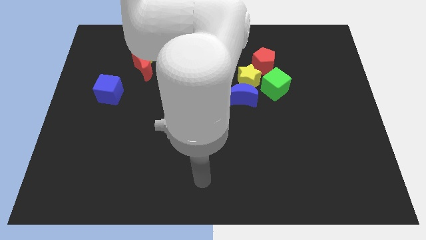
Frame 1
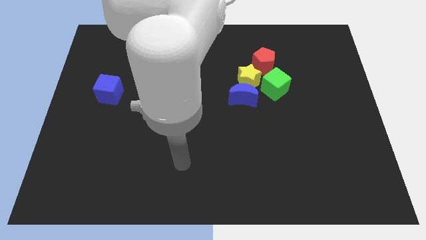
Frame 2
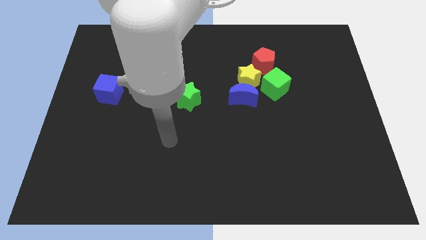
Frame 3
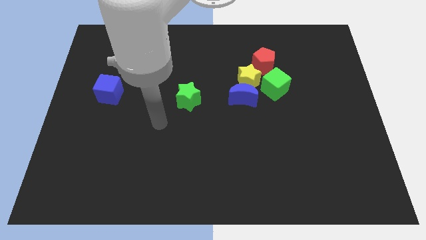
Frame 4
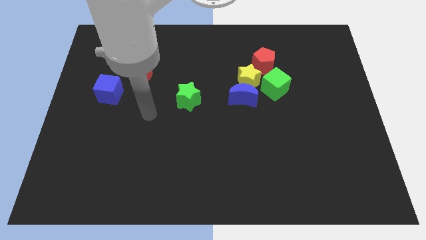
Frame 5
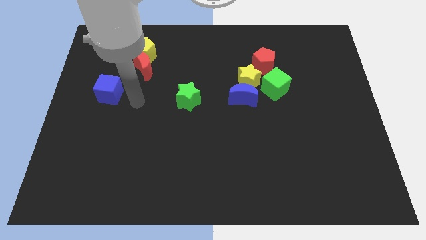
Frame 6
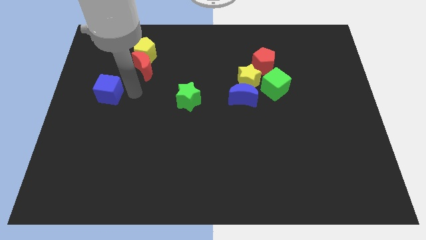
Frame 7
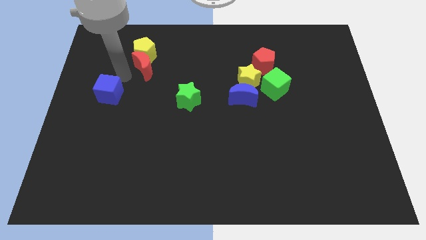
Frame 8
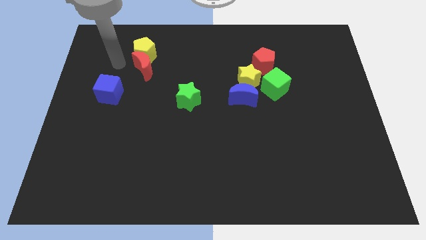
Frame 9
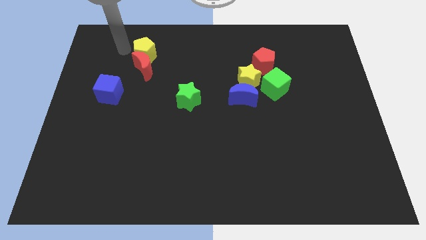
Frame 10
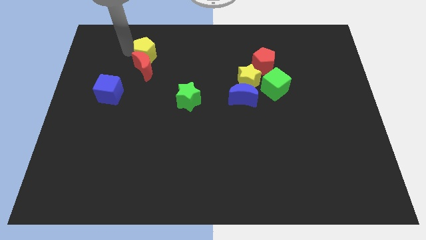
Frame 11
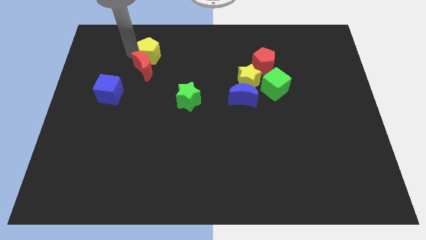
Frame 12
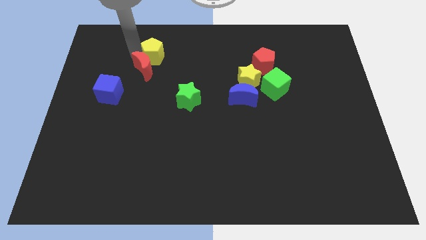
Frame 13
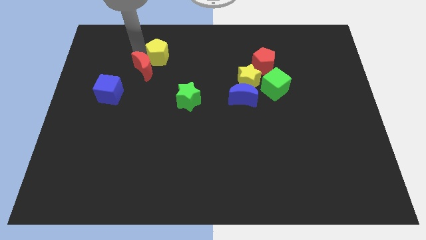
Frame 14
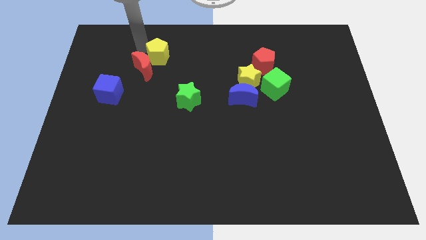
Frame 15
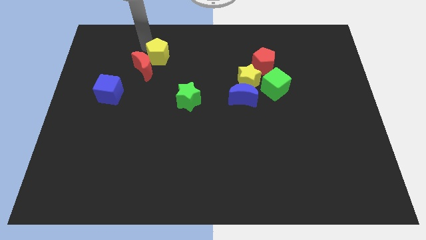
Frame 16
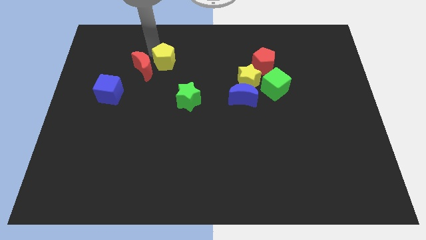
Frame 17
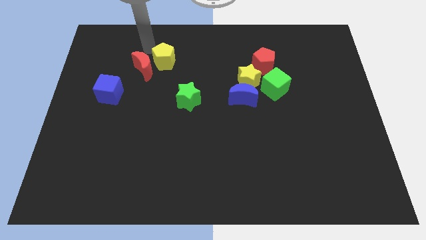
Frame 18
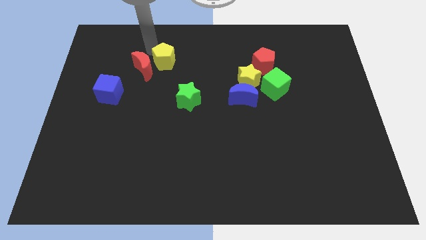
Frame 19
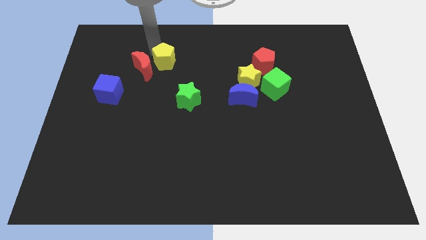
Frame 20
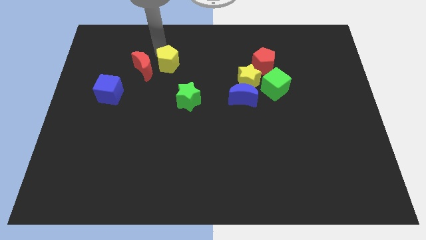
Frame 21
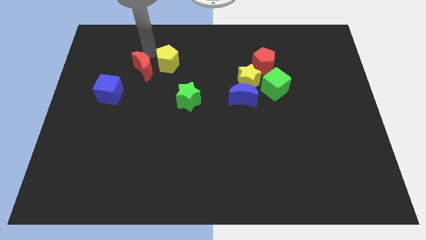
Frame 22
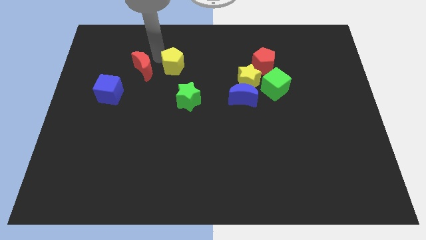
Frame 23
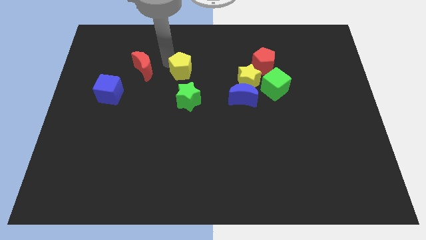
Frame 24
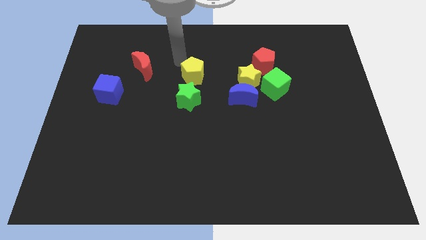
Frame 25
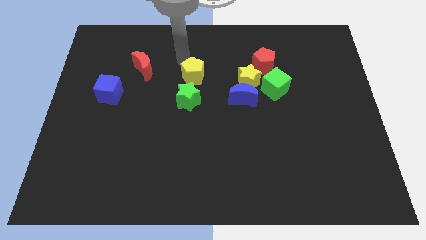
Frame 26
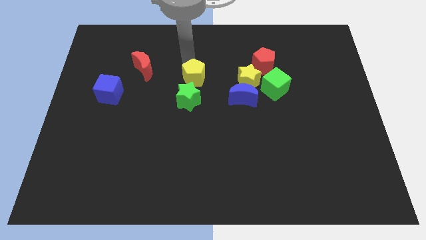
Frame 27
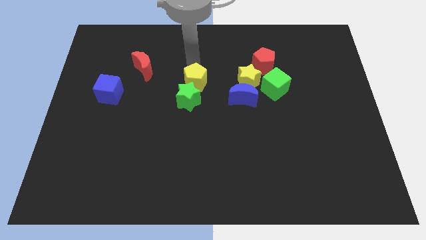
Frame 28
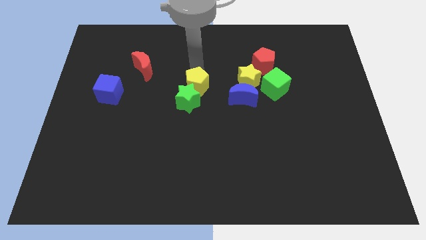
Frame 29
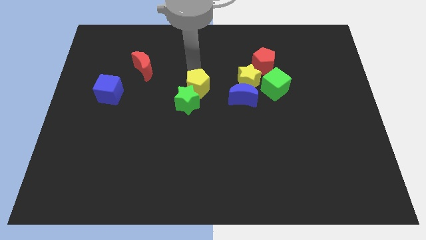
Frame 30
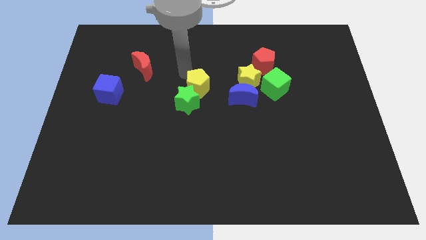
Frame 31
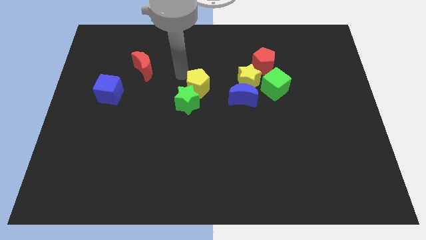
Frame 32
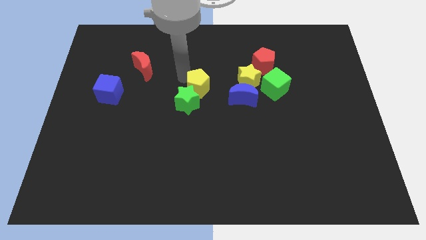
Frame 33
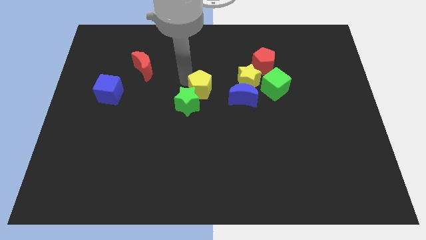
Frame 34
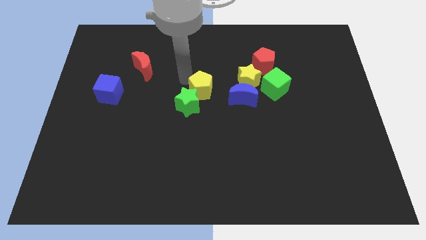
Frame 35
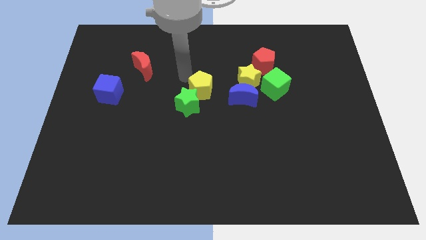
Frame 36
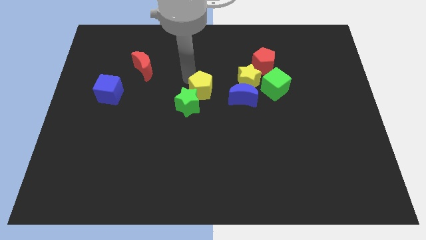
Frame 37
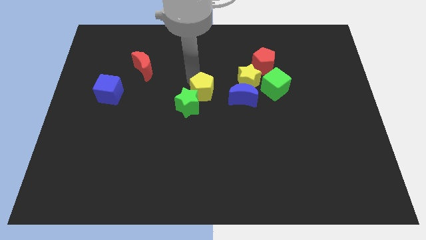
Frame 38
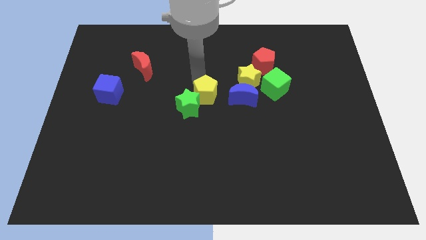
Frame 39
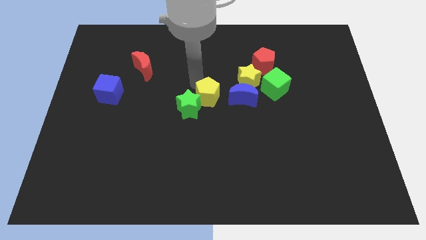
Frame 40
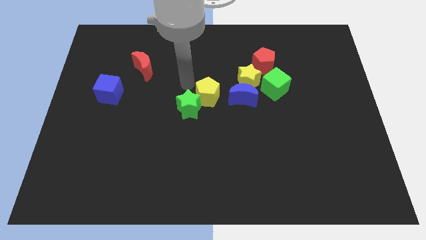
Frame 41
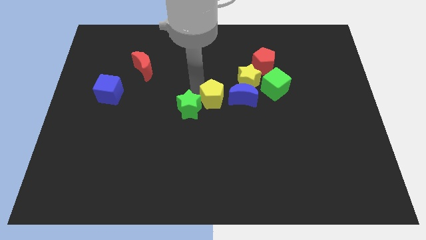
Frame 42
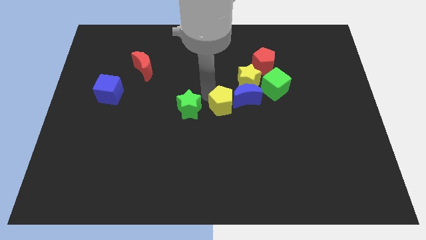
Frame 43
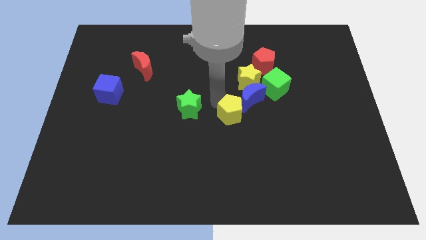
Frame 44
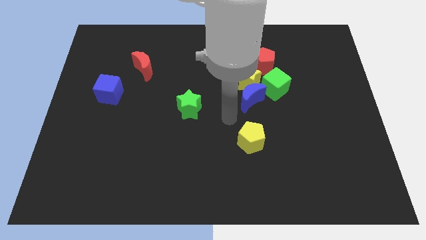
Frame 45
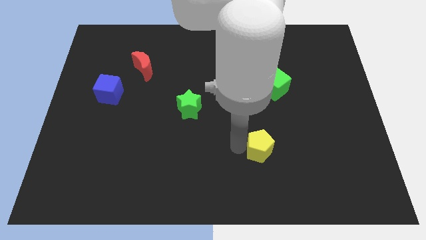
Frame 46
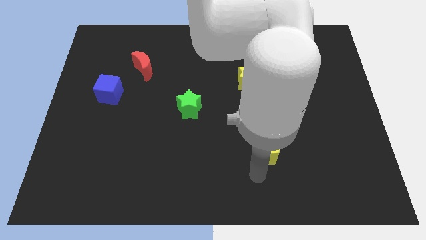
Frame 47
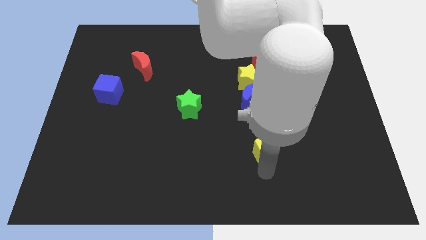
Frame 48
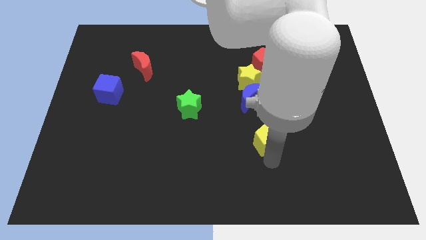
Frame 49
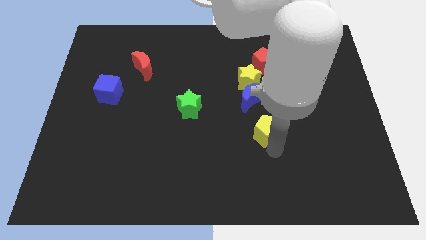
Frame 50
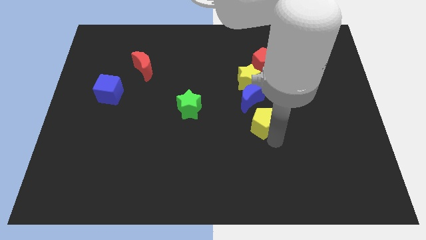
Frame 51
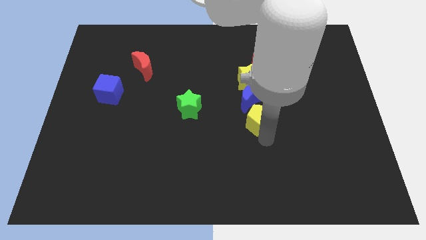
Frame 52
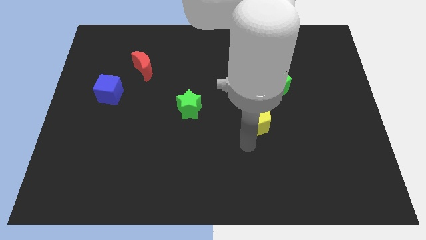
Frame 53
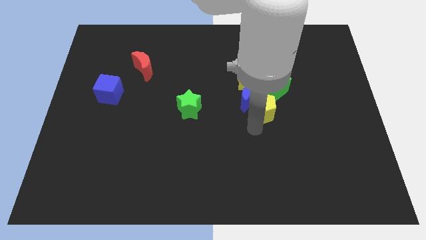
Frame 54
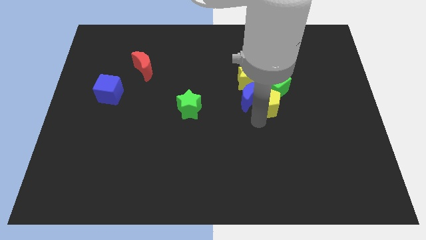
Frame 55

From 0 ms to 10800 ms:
slide the yellow pentagon close to the green cube

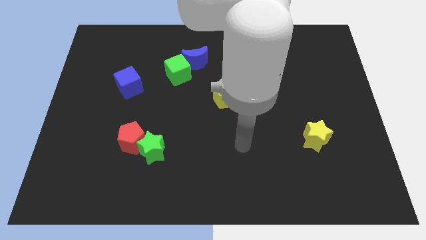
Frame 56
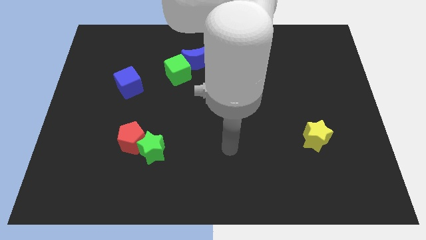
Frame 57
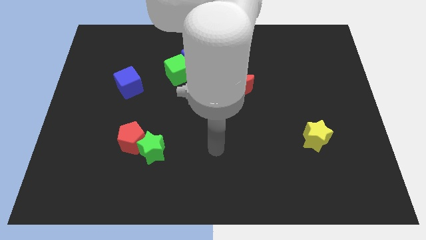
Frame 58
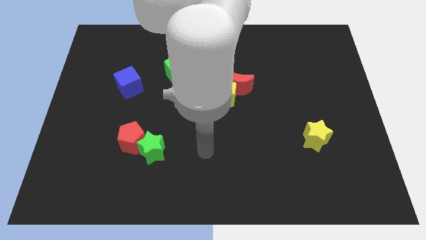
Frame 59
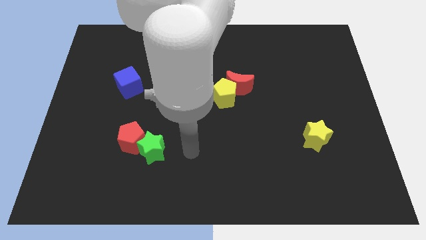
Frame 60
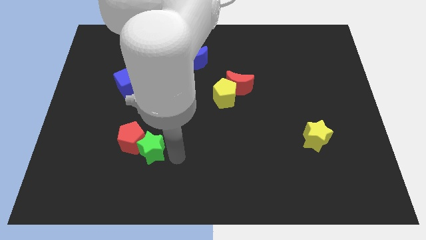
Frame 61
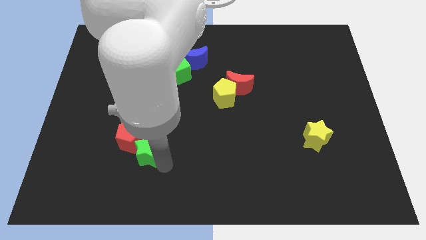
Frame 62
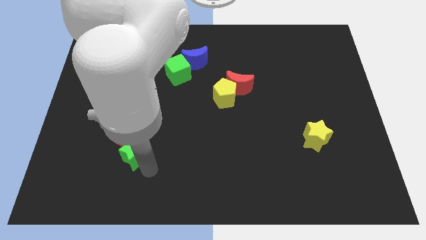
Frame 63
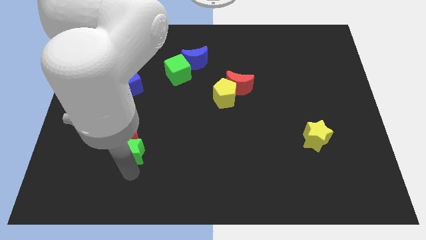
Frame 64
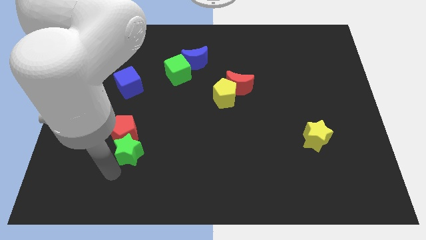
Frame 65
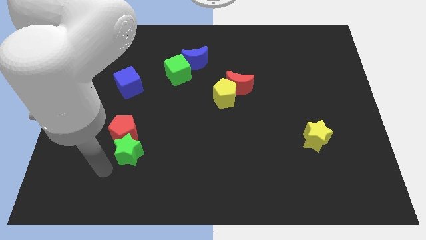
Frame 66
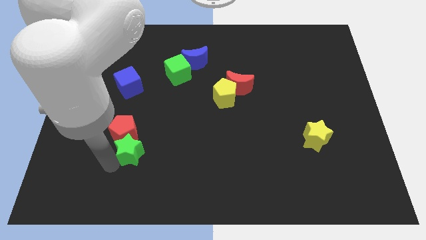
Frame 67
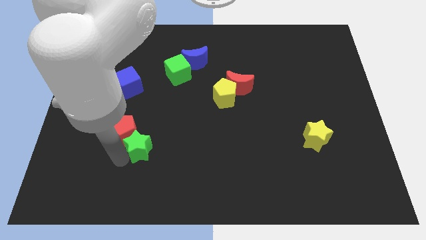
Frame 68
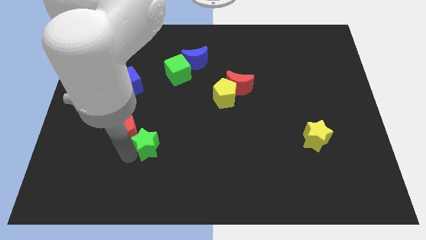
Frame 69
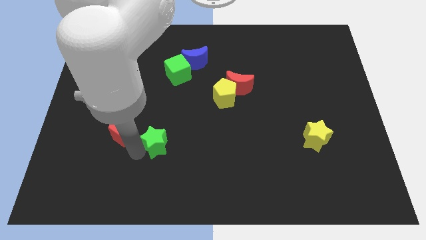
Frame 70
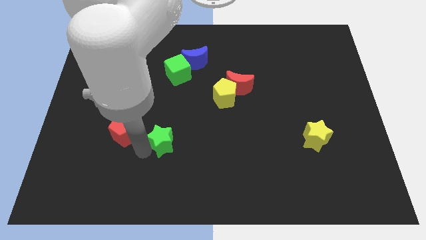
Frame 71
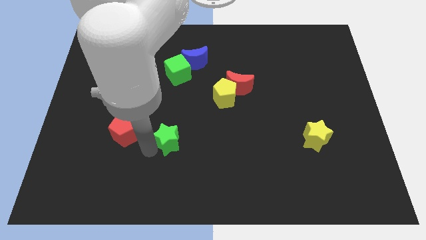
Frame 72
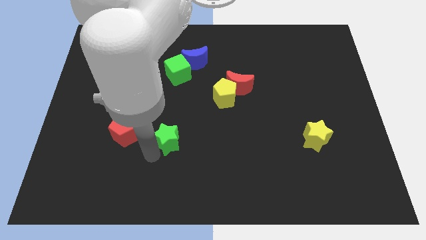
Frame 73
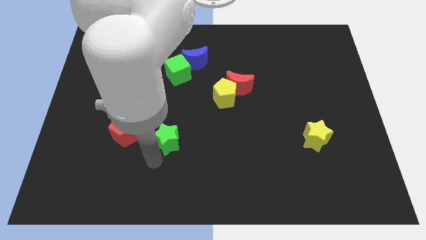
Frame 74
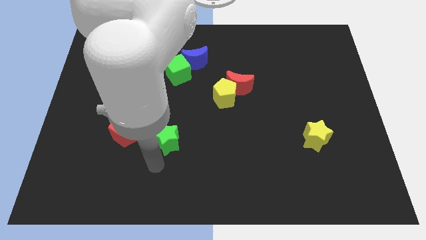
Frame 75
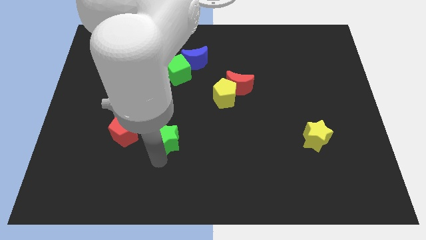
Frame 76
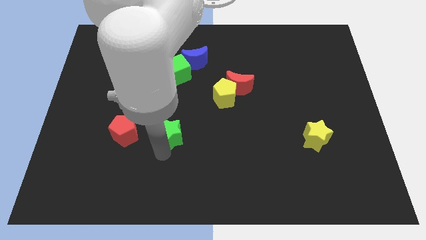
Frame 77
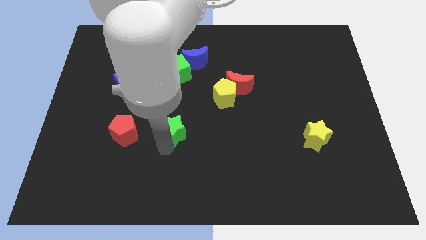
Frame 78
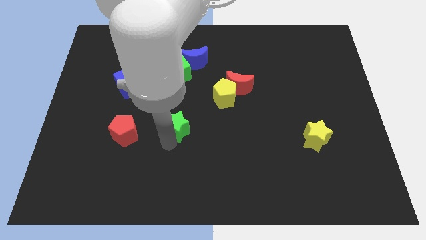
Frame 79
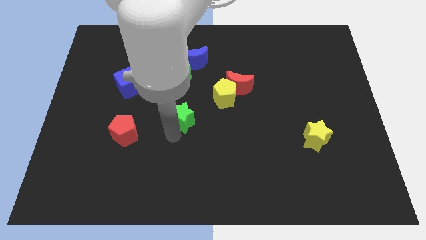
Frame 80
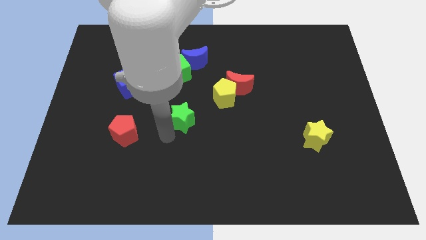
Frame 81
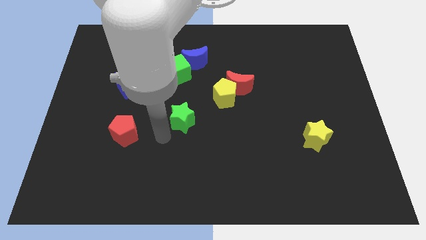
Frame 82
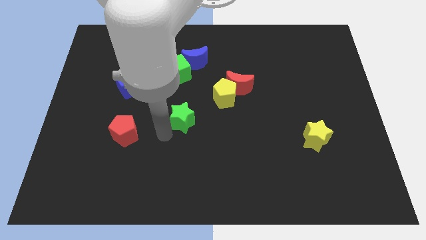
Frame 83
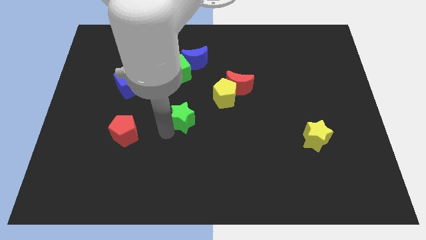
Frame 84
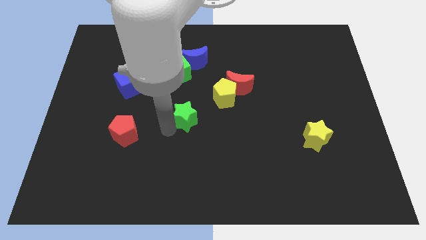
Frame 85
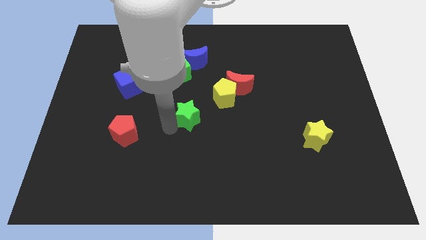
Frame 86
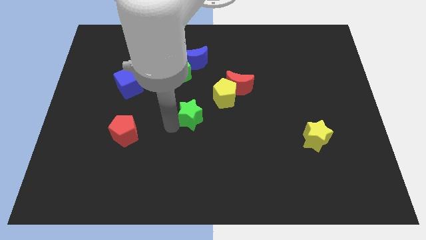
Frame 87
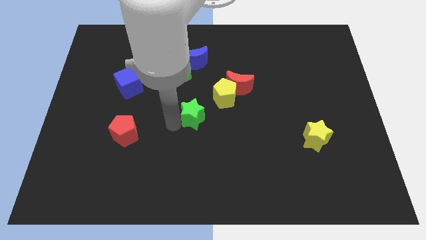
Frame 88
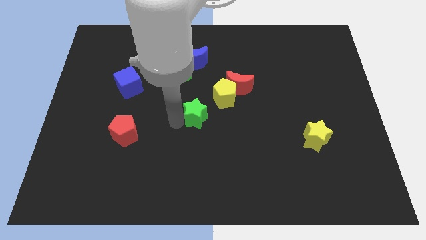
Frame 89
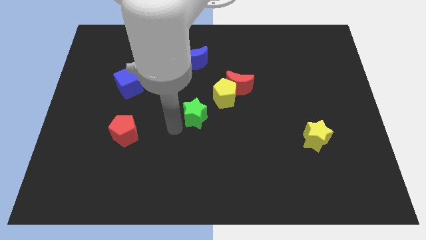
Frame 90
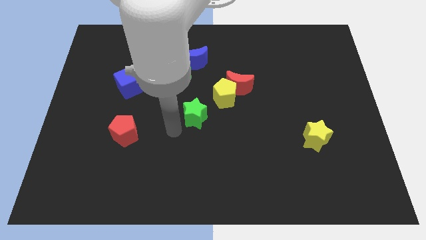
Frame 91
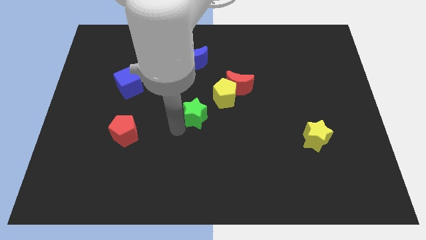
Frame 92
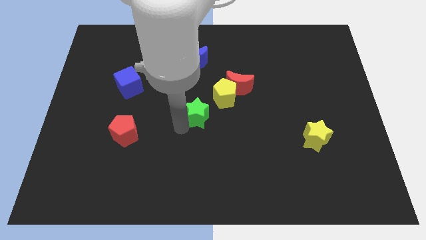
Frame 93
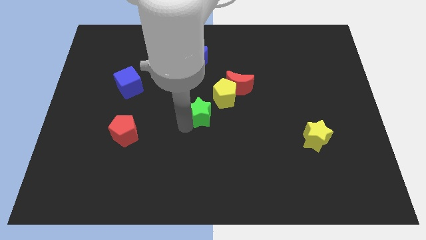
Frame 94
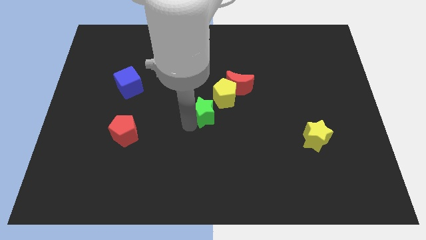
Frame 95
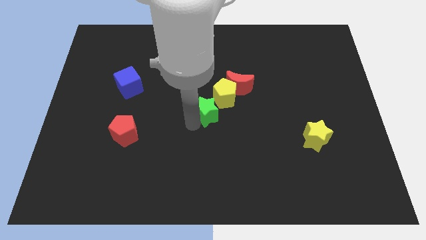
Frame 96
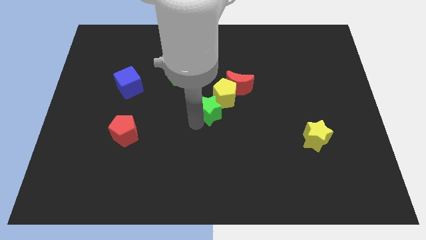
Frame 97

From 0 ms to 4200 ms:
slide the green star towards the yellow pentagon
